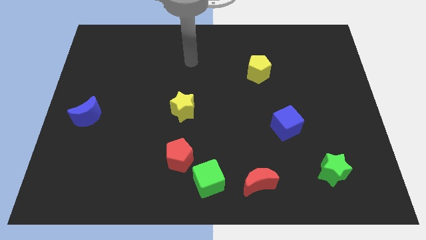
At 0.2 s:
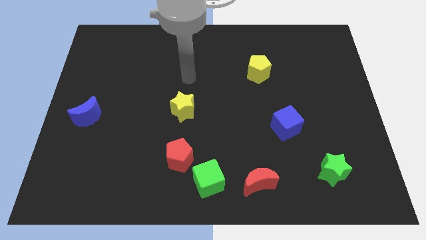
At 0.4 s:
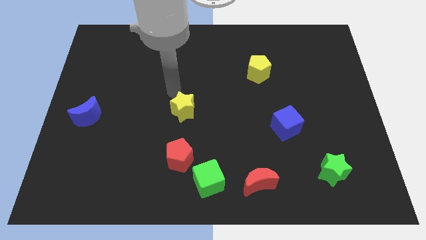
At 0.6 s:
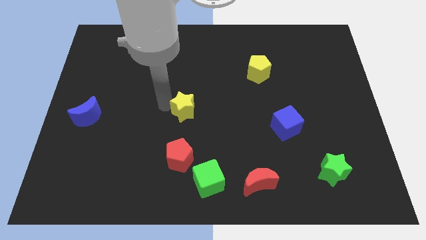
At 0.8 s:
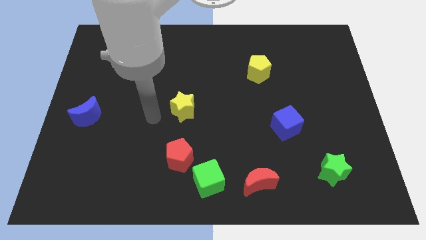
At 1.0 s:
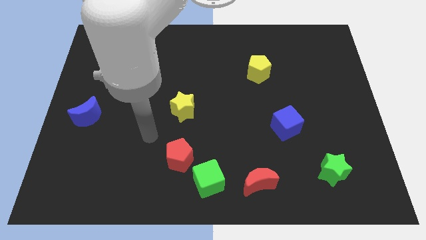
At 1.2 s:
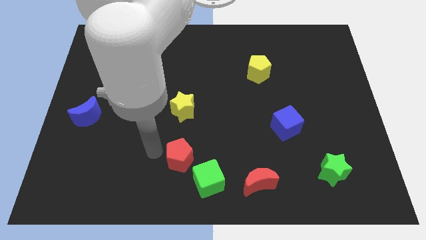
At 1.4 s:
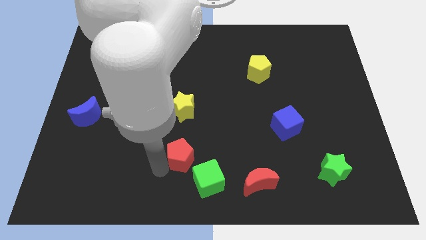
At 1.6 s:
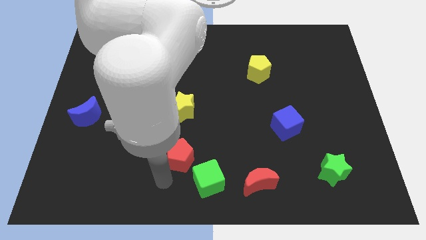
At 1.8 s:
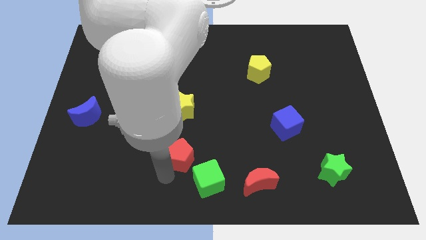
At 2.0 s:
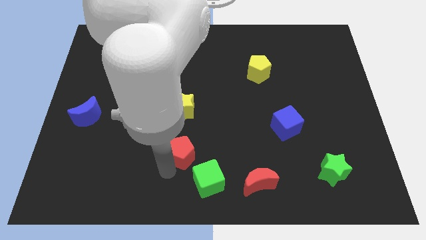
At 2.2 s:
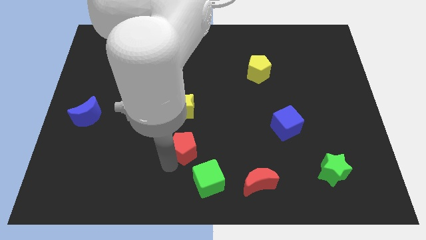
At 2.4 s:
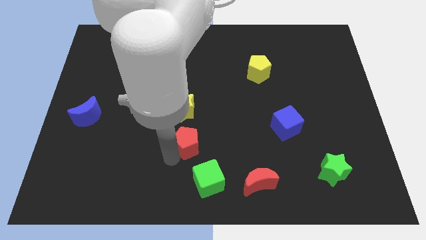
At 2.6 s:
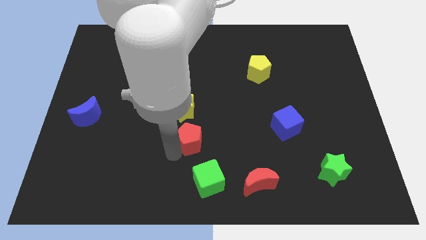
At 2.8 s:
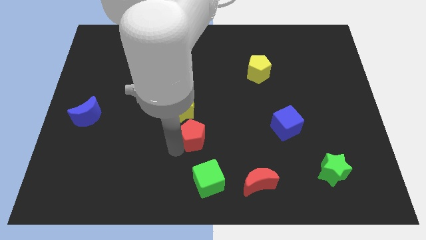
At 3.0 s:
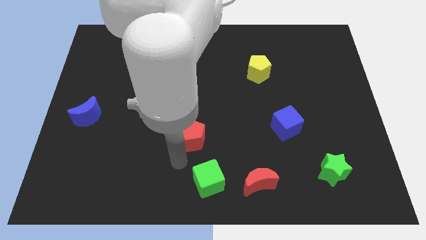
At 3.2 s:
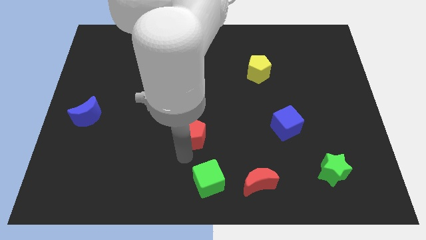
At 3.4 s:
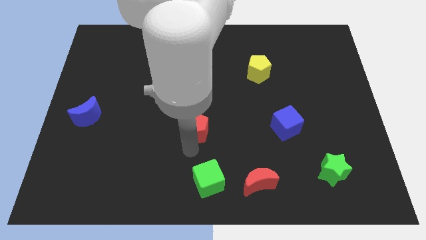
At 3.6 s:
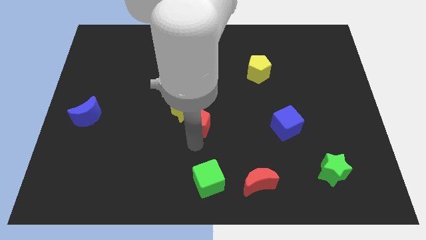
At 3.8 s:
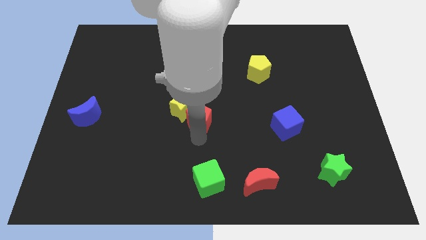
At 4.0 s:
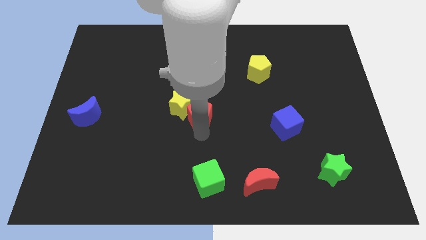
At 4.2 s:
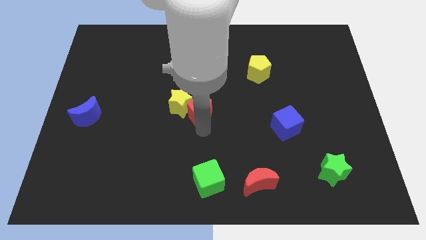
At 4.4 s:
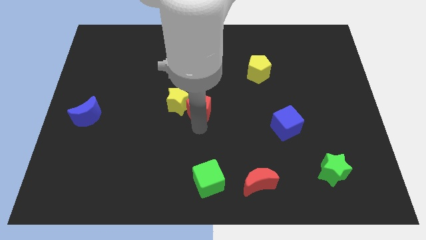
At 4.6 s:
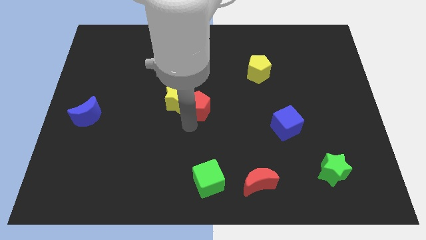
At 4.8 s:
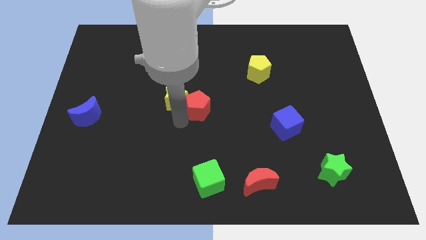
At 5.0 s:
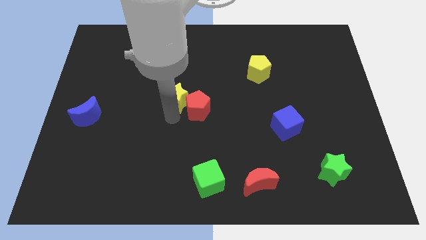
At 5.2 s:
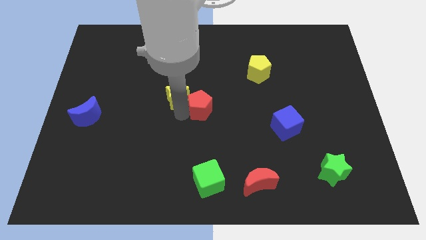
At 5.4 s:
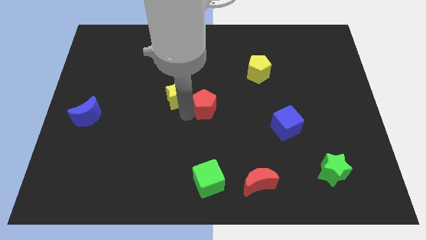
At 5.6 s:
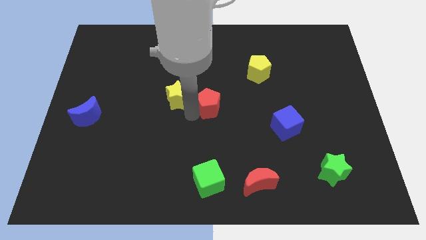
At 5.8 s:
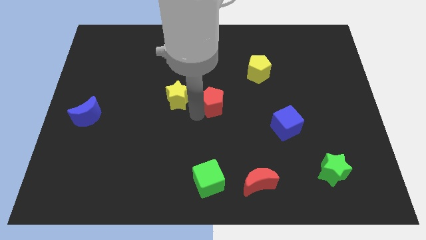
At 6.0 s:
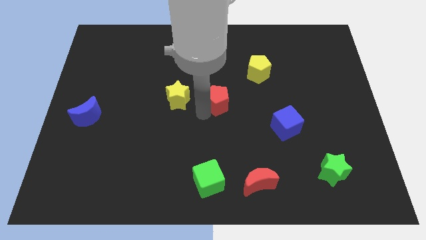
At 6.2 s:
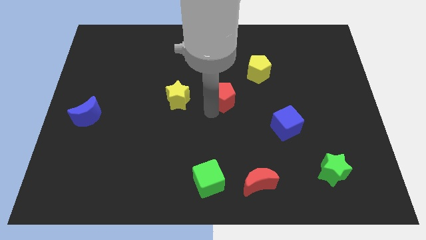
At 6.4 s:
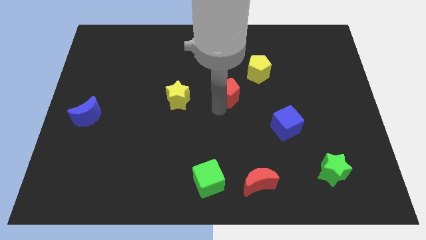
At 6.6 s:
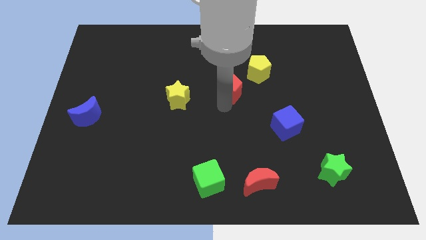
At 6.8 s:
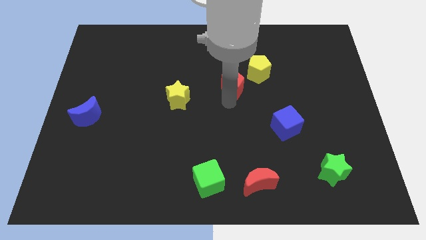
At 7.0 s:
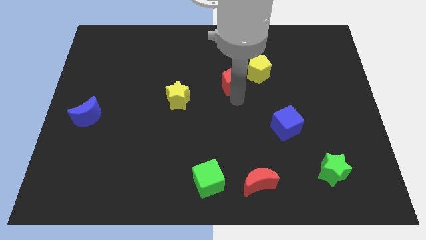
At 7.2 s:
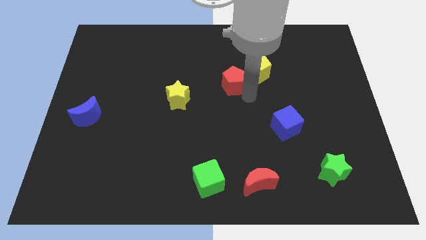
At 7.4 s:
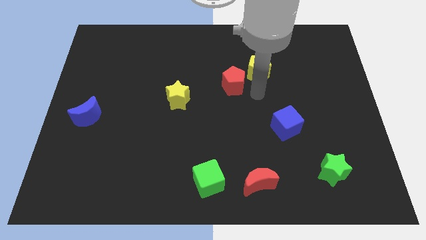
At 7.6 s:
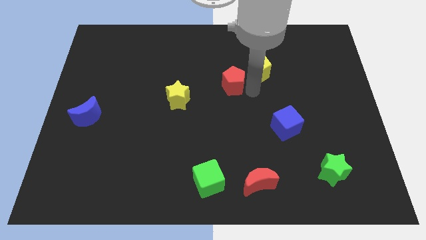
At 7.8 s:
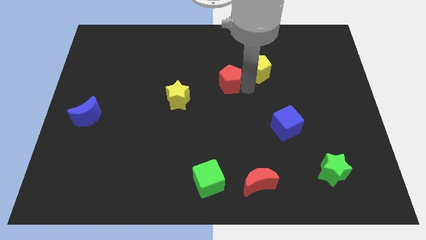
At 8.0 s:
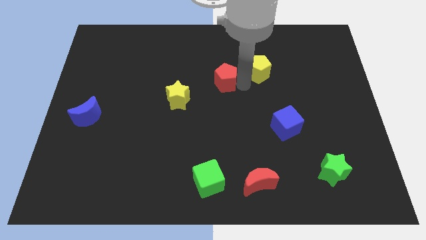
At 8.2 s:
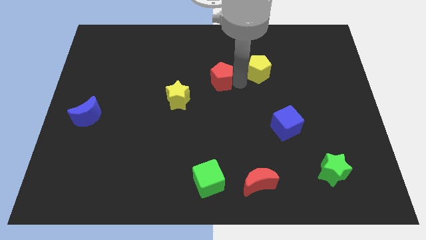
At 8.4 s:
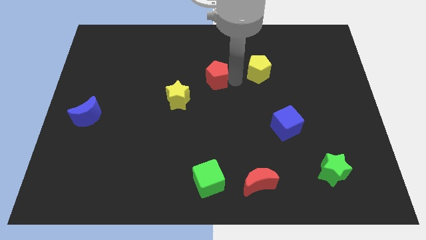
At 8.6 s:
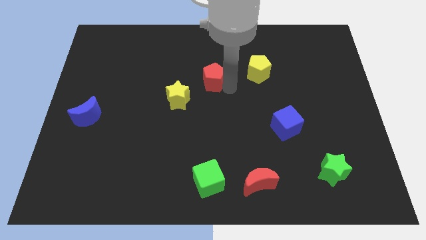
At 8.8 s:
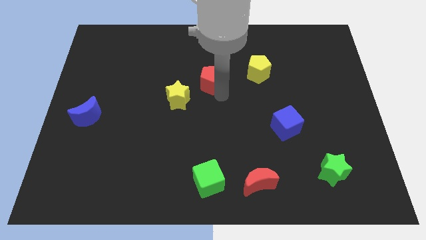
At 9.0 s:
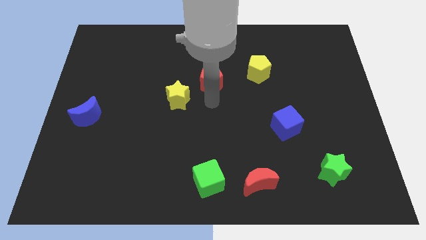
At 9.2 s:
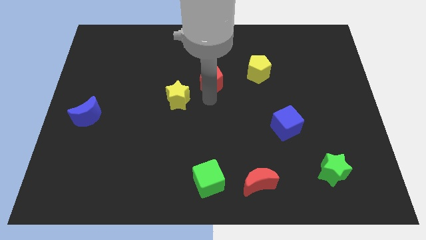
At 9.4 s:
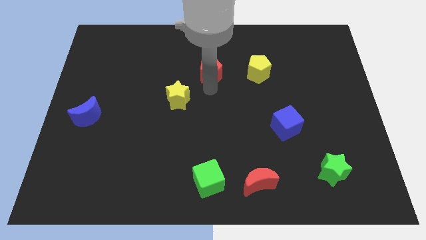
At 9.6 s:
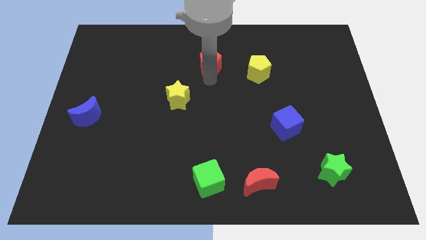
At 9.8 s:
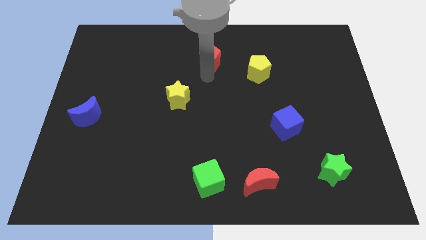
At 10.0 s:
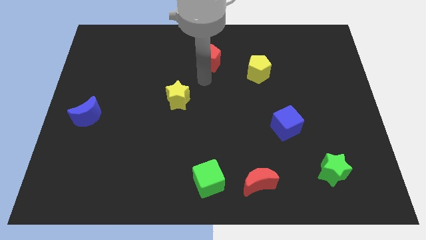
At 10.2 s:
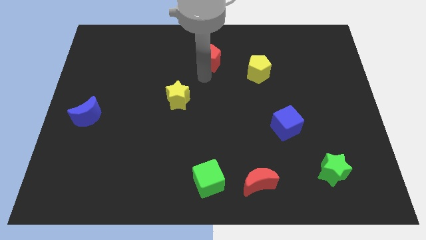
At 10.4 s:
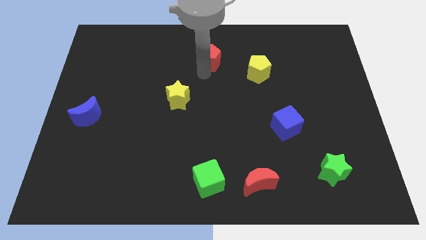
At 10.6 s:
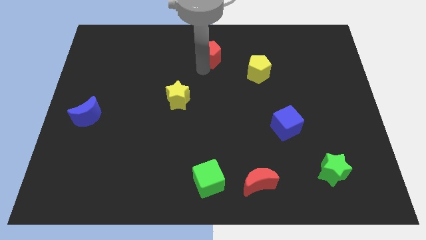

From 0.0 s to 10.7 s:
put the red pentagon to the top

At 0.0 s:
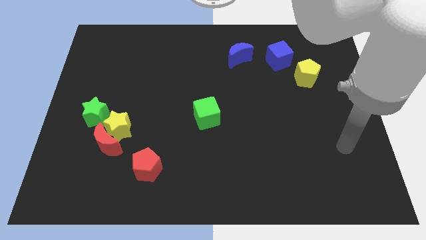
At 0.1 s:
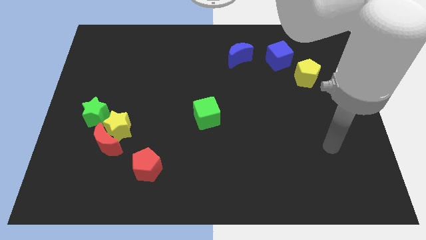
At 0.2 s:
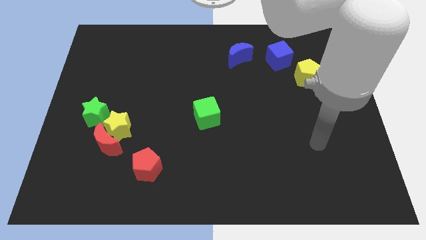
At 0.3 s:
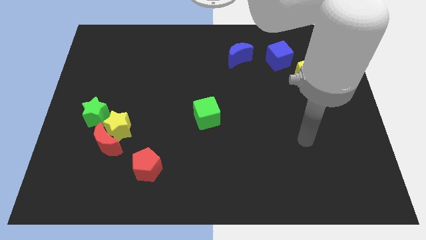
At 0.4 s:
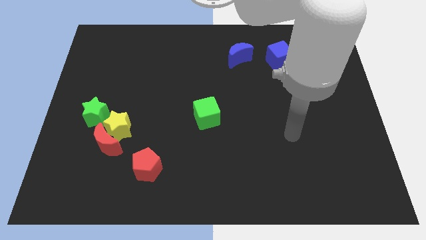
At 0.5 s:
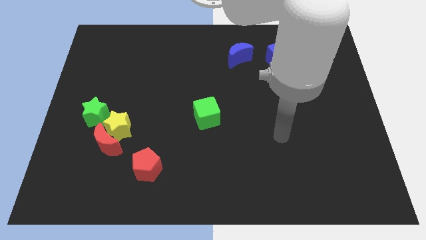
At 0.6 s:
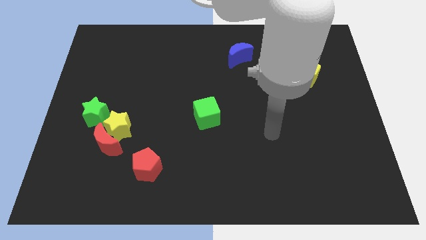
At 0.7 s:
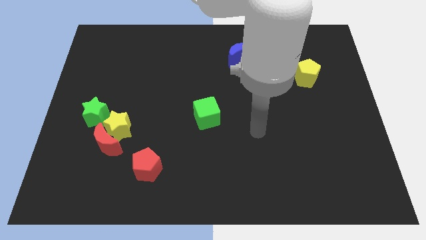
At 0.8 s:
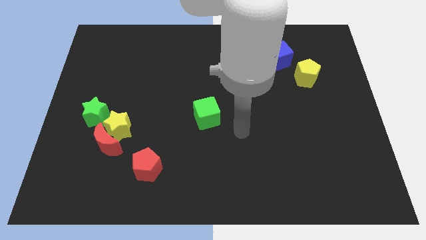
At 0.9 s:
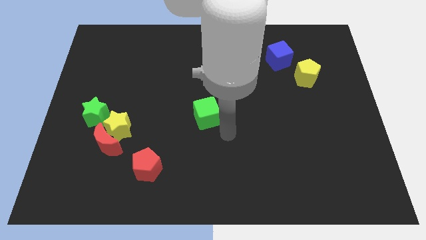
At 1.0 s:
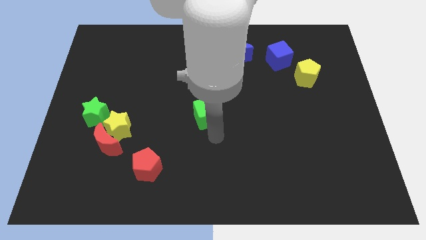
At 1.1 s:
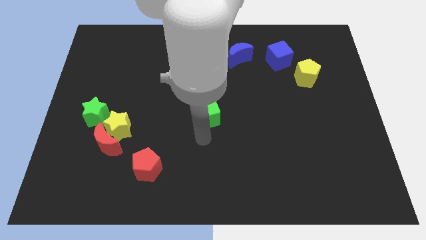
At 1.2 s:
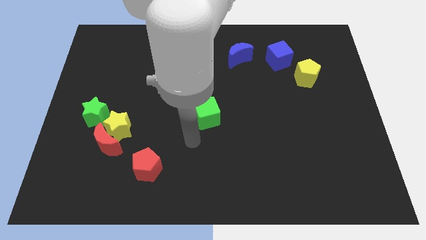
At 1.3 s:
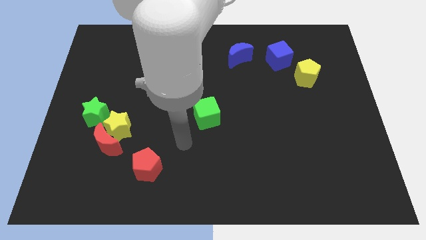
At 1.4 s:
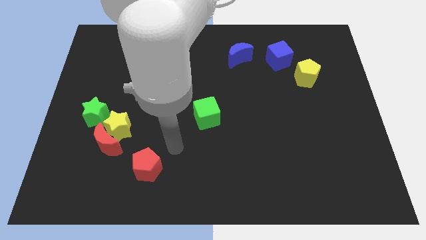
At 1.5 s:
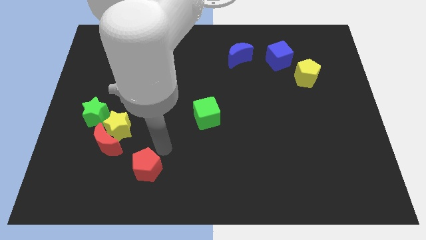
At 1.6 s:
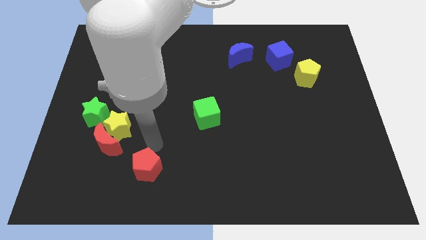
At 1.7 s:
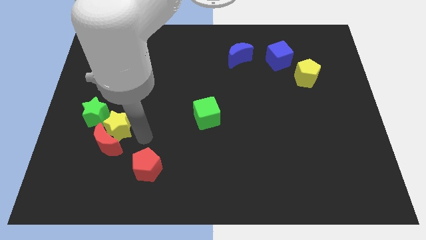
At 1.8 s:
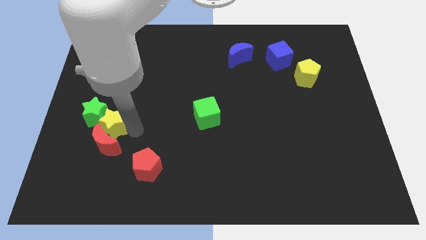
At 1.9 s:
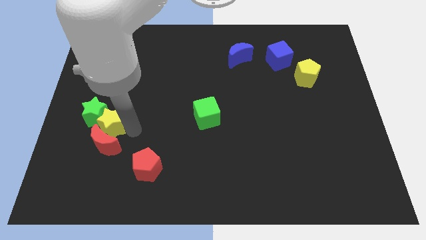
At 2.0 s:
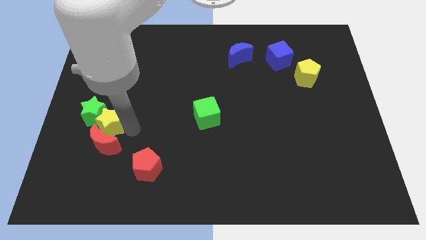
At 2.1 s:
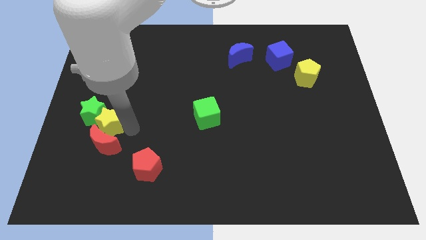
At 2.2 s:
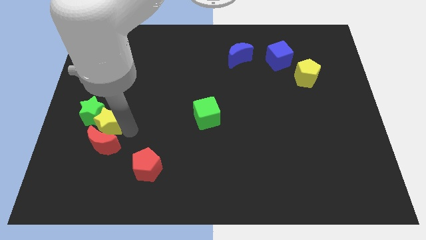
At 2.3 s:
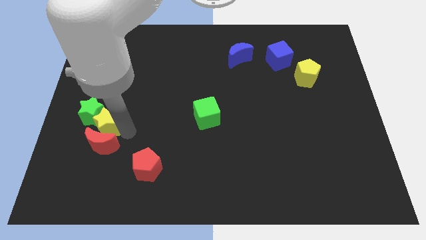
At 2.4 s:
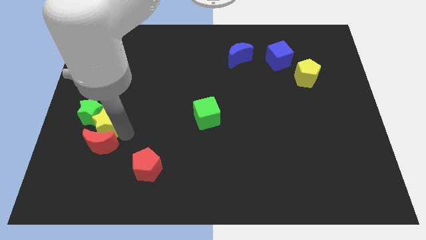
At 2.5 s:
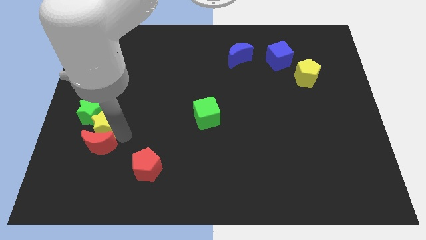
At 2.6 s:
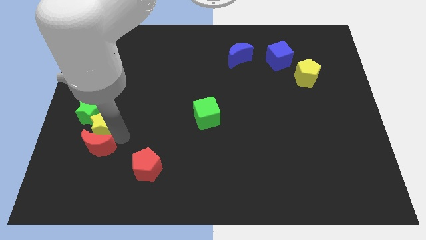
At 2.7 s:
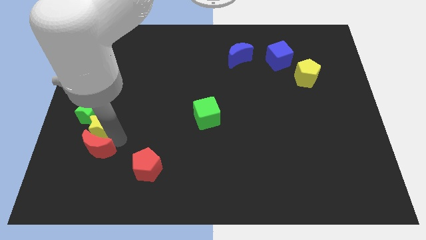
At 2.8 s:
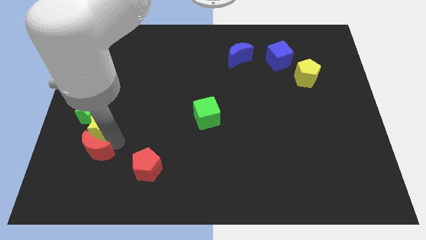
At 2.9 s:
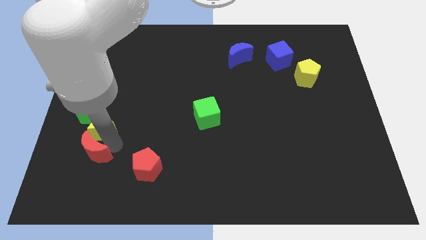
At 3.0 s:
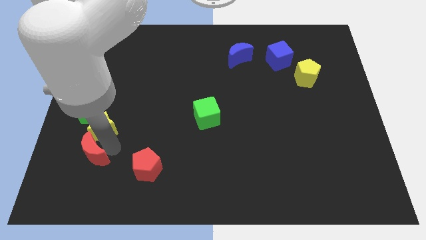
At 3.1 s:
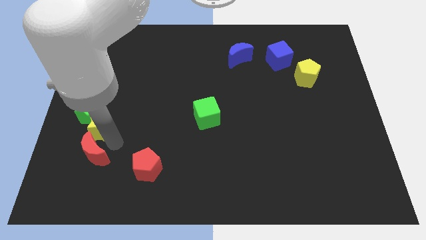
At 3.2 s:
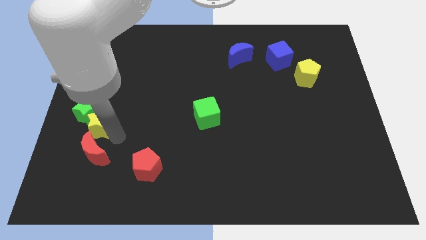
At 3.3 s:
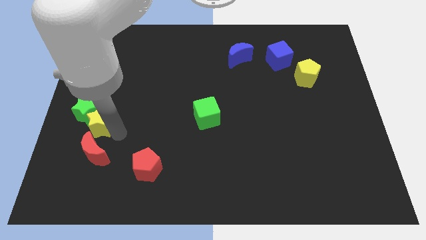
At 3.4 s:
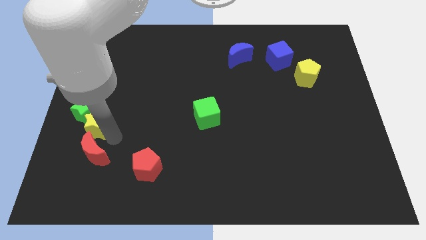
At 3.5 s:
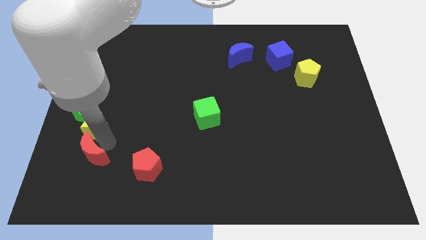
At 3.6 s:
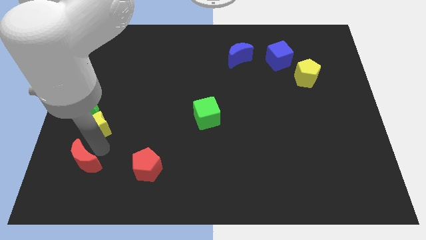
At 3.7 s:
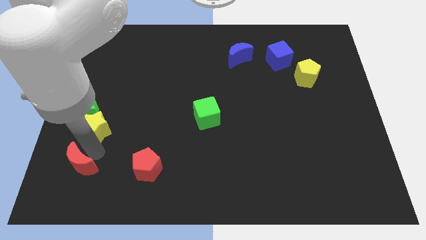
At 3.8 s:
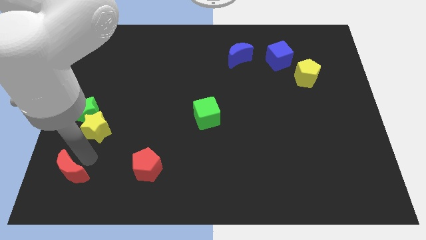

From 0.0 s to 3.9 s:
put the red moon to the bottom left of the board
